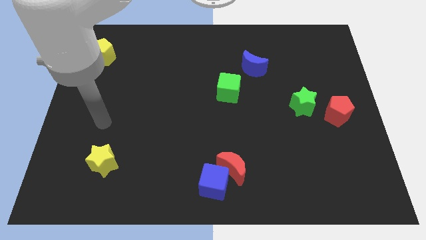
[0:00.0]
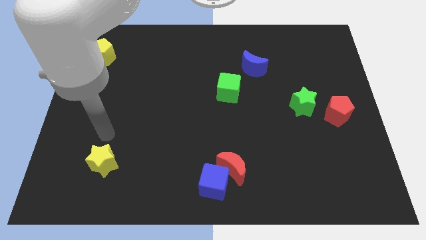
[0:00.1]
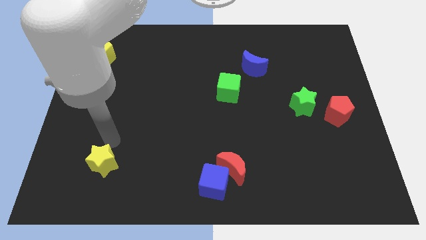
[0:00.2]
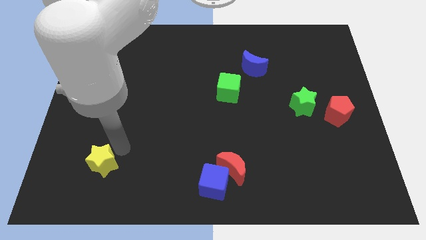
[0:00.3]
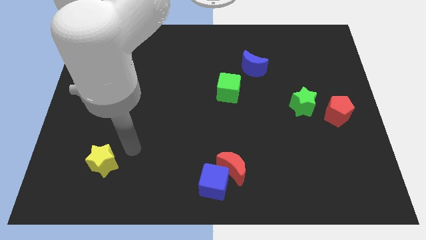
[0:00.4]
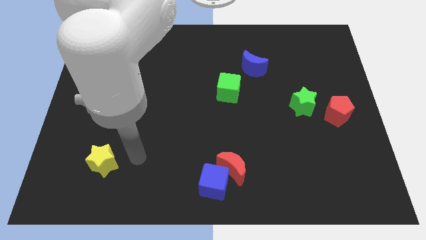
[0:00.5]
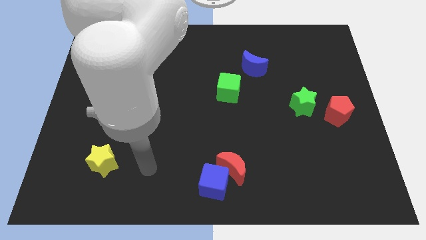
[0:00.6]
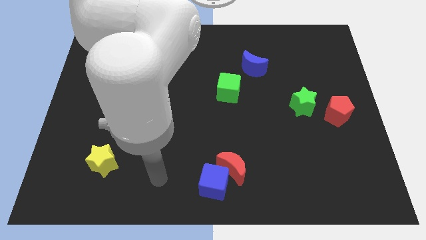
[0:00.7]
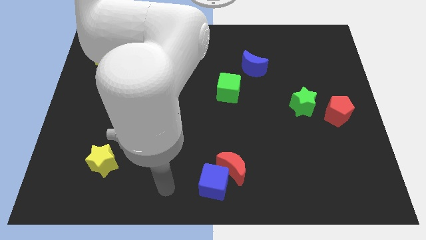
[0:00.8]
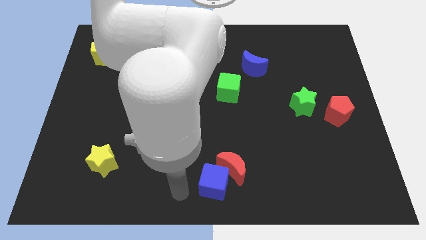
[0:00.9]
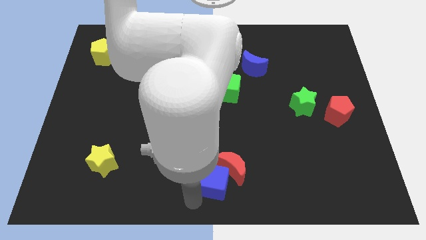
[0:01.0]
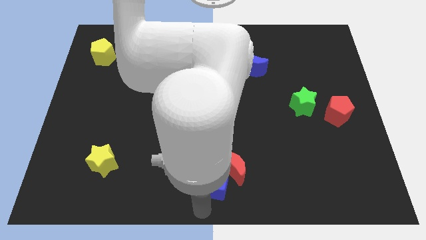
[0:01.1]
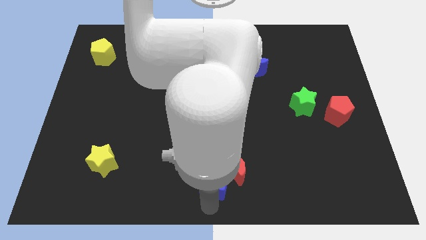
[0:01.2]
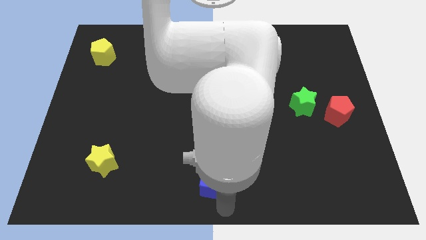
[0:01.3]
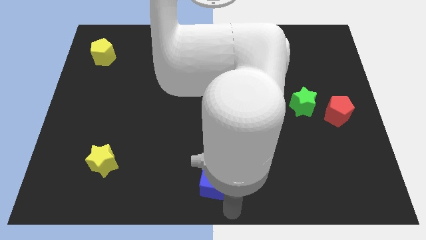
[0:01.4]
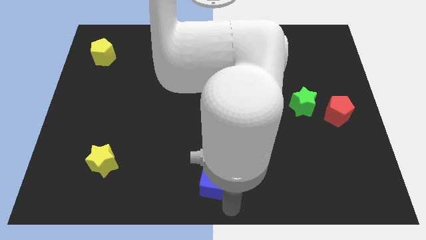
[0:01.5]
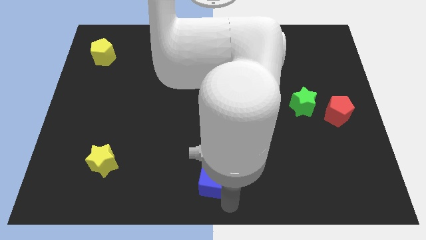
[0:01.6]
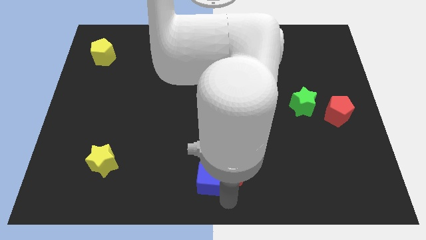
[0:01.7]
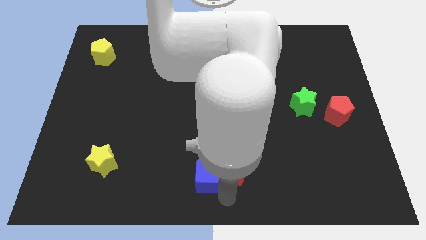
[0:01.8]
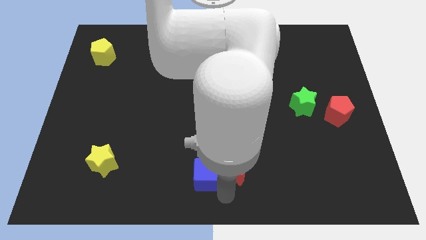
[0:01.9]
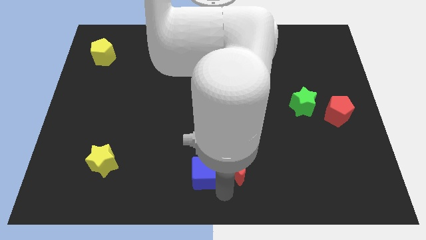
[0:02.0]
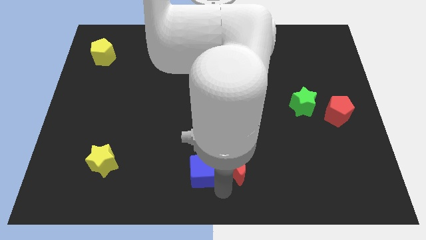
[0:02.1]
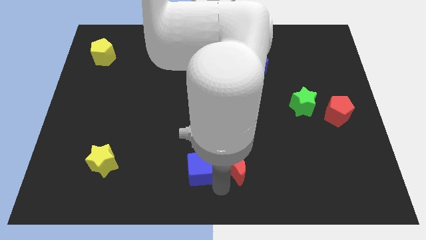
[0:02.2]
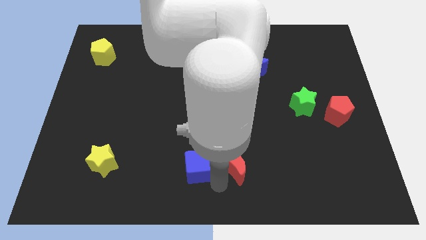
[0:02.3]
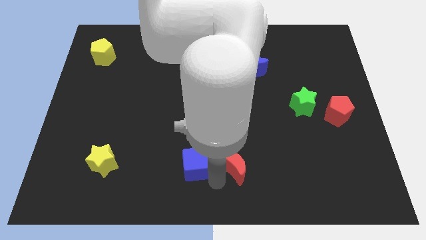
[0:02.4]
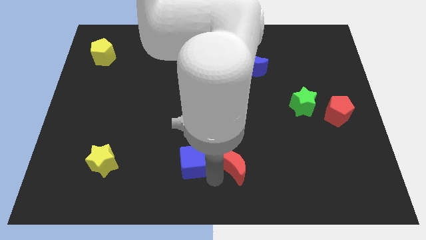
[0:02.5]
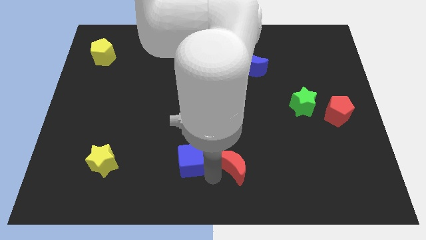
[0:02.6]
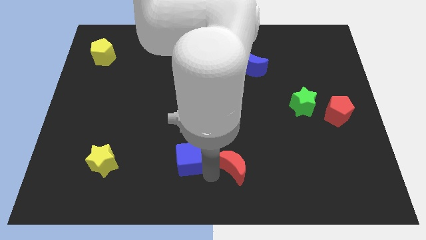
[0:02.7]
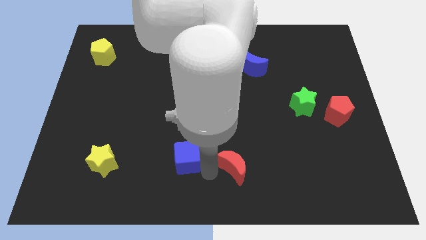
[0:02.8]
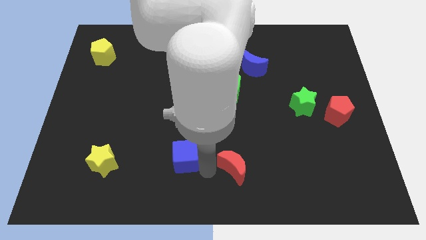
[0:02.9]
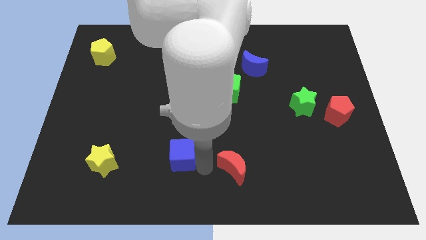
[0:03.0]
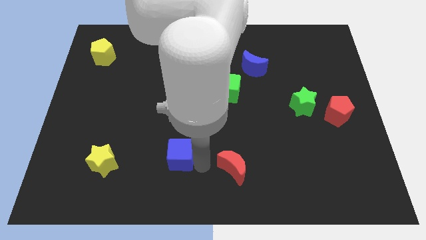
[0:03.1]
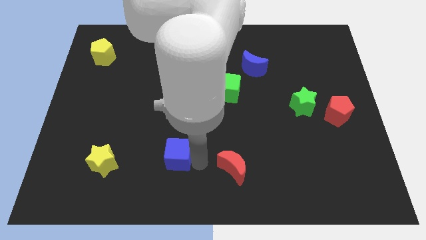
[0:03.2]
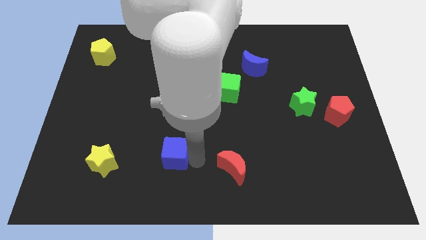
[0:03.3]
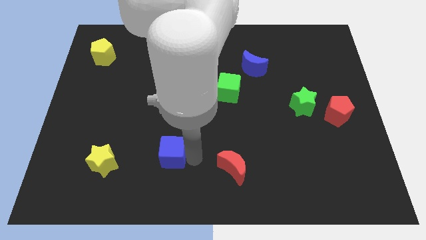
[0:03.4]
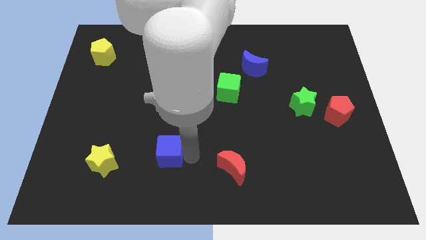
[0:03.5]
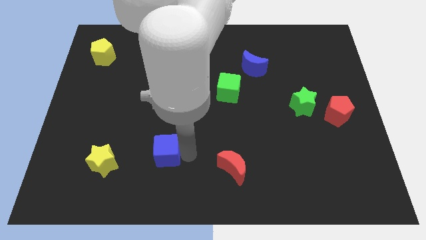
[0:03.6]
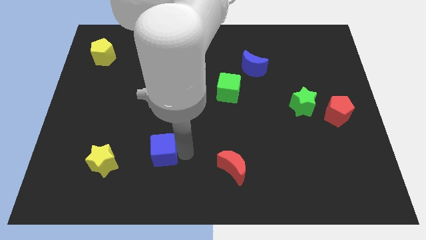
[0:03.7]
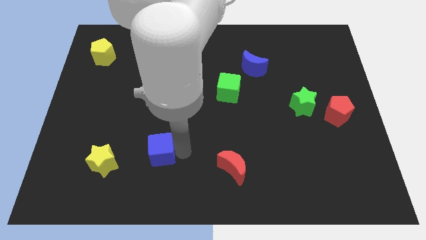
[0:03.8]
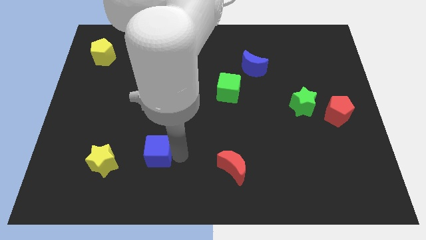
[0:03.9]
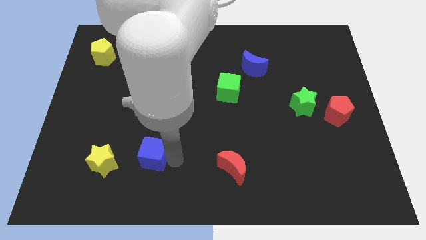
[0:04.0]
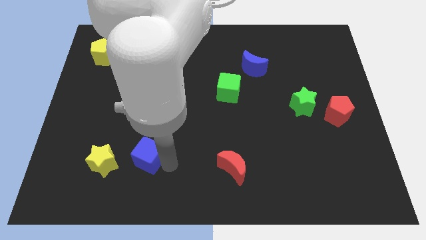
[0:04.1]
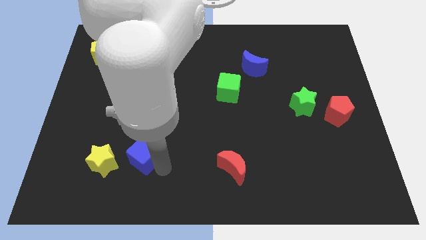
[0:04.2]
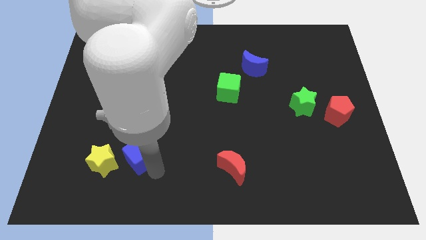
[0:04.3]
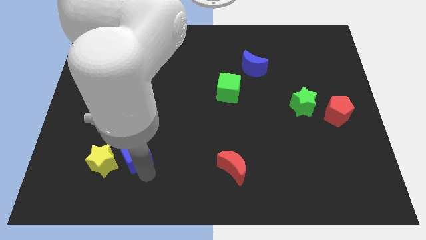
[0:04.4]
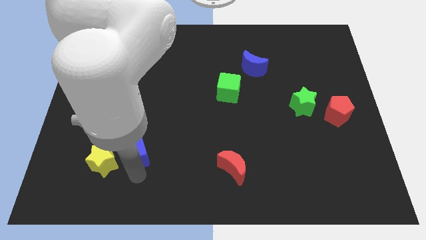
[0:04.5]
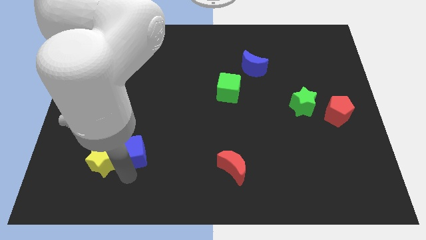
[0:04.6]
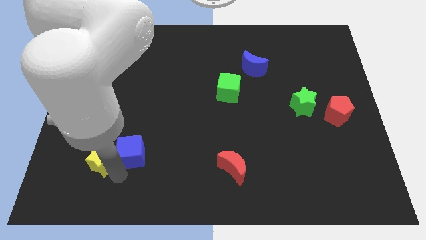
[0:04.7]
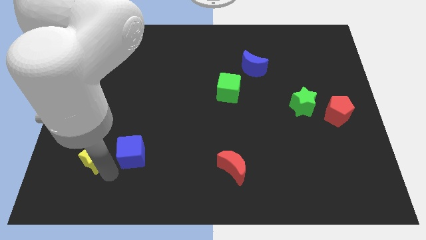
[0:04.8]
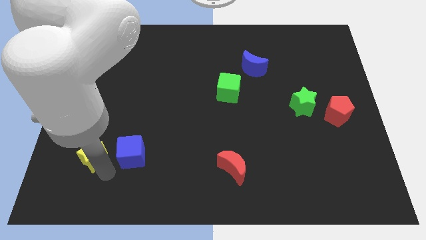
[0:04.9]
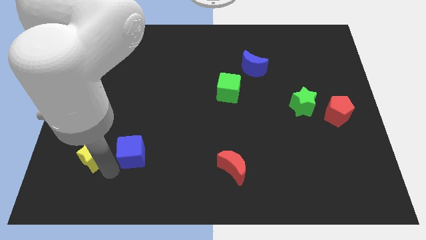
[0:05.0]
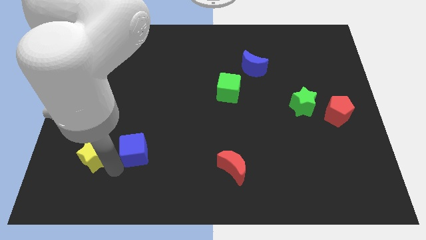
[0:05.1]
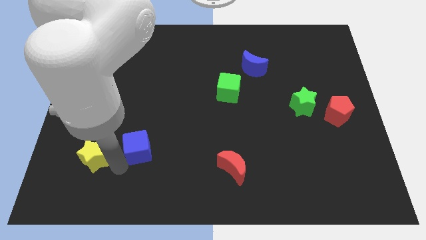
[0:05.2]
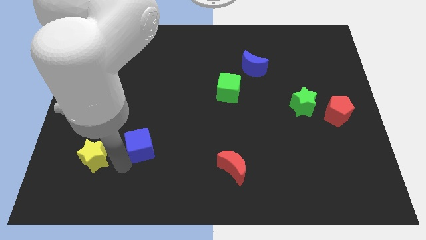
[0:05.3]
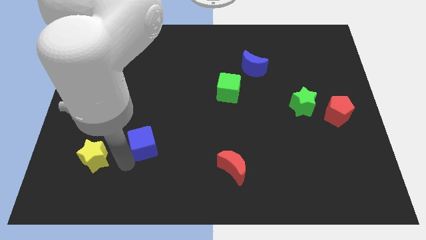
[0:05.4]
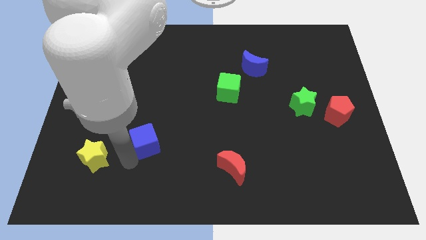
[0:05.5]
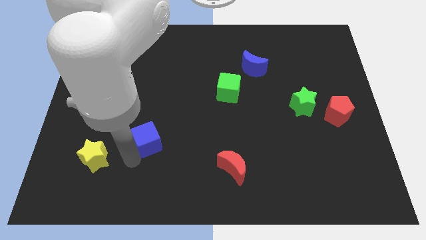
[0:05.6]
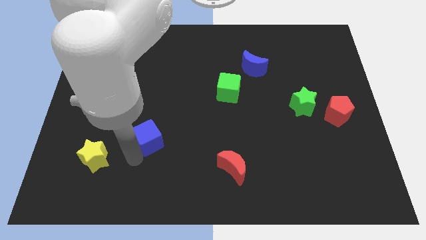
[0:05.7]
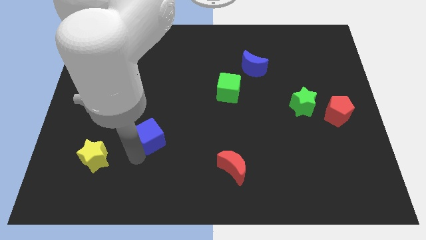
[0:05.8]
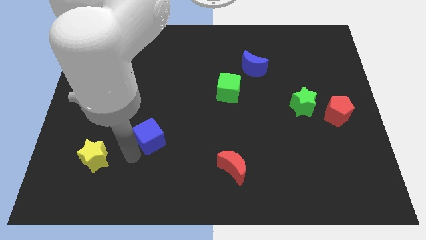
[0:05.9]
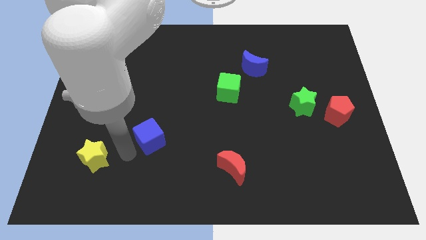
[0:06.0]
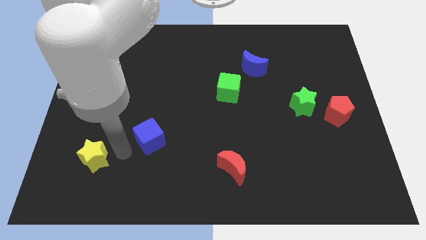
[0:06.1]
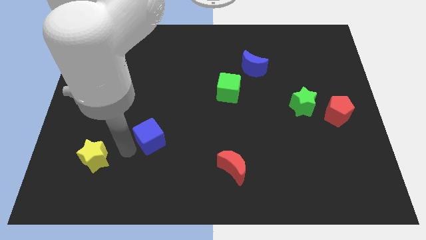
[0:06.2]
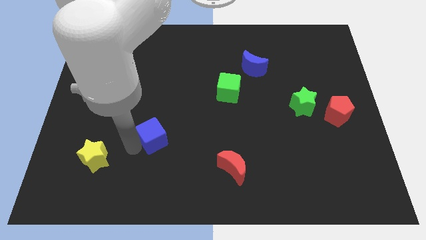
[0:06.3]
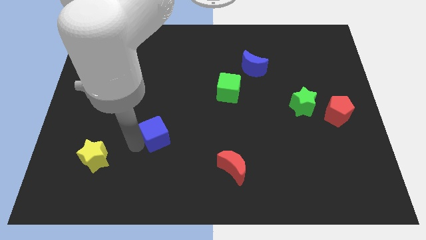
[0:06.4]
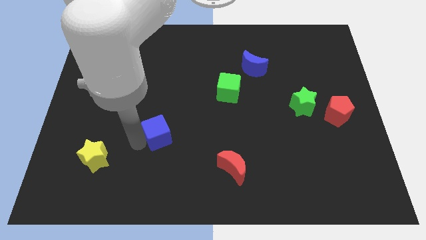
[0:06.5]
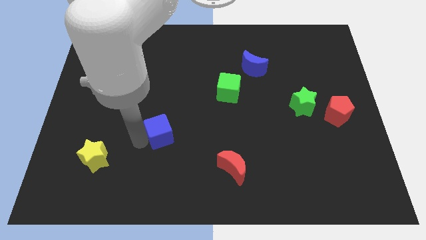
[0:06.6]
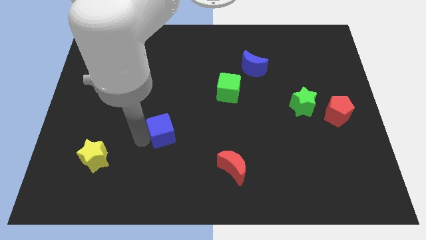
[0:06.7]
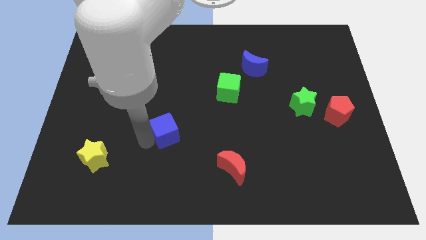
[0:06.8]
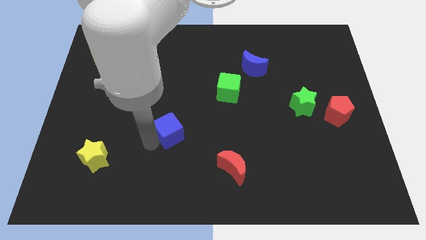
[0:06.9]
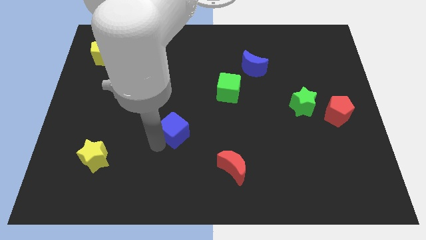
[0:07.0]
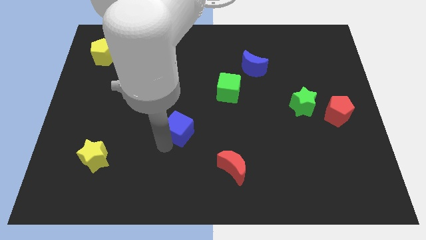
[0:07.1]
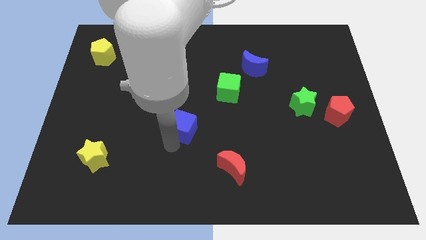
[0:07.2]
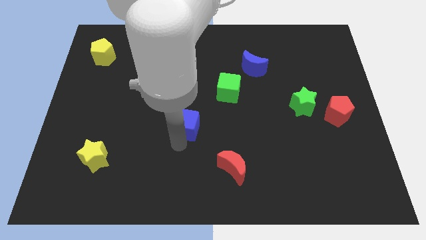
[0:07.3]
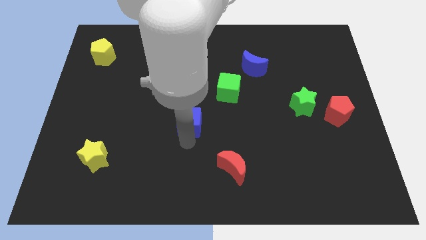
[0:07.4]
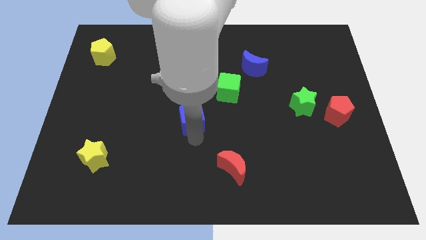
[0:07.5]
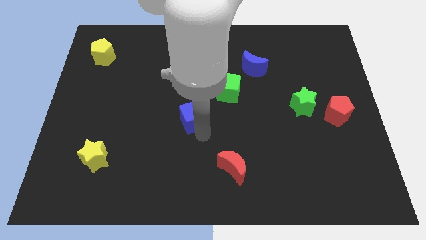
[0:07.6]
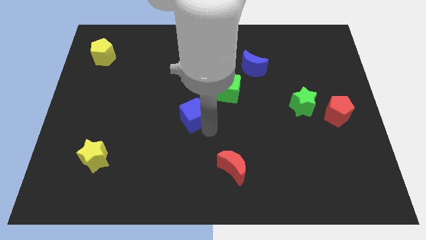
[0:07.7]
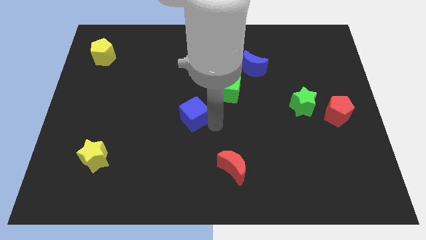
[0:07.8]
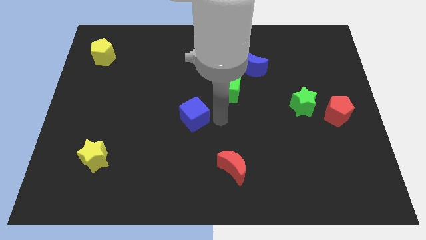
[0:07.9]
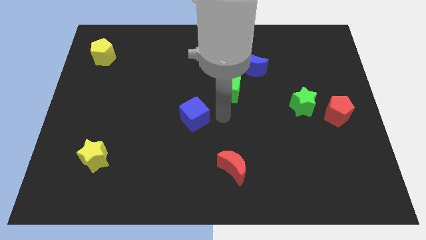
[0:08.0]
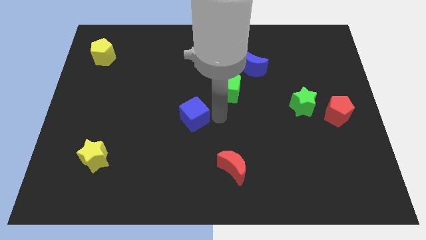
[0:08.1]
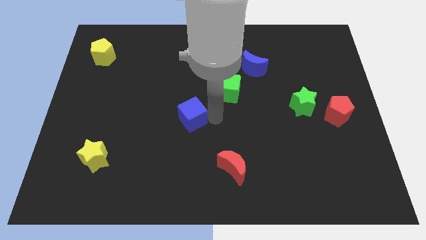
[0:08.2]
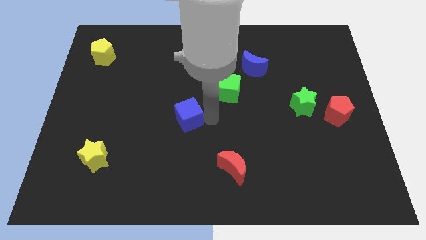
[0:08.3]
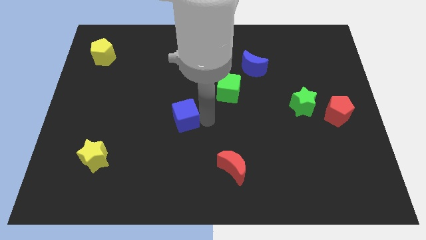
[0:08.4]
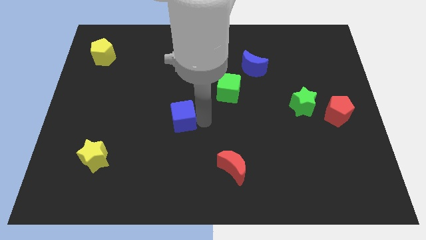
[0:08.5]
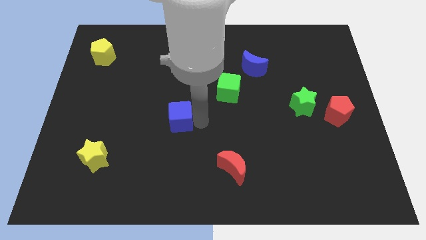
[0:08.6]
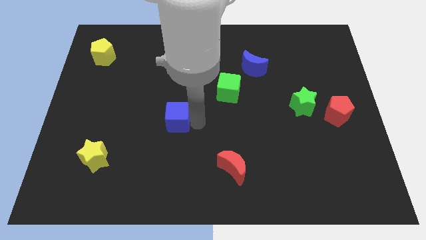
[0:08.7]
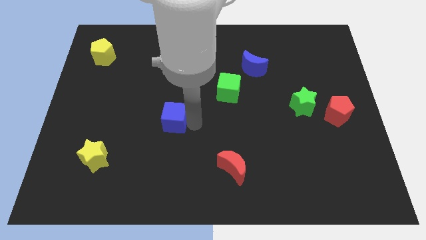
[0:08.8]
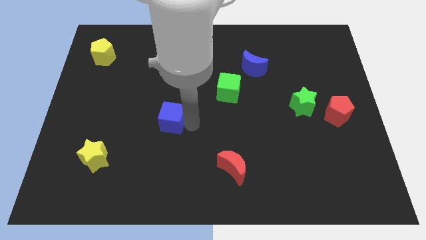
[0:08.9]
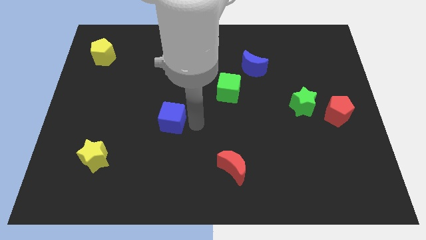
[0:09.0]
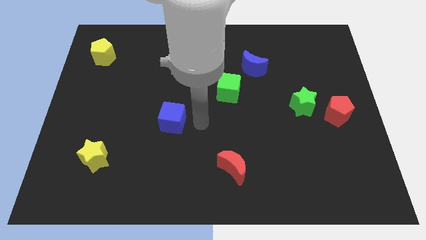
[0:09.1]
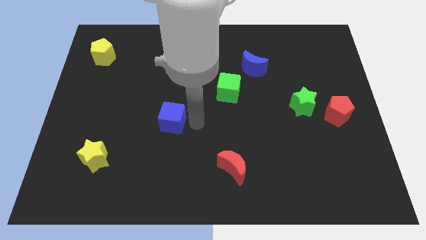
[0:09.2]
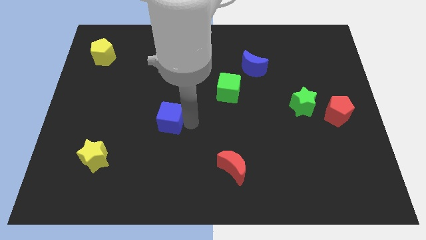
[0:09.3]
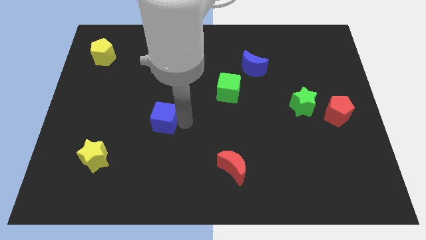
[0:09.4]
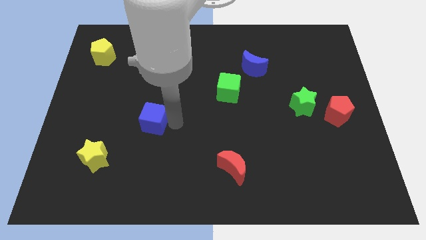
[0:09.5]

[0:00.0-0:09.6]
slide the blue cube up and then to the left
